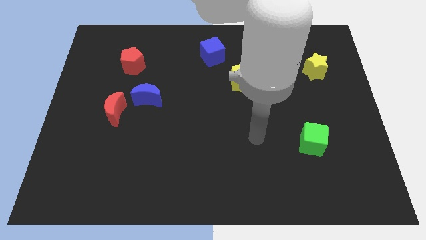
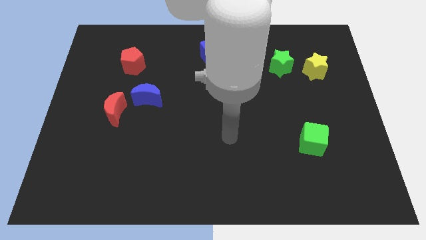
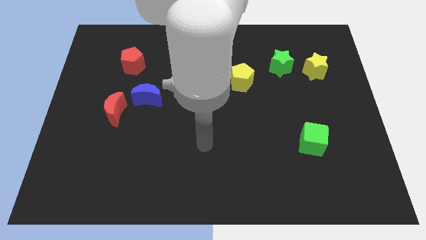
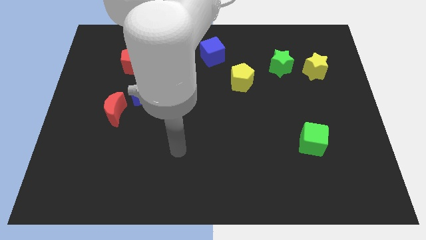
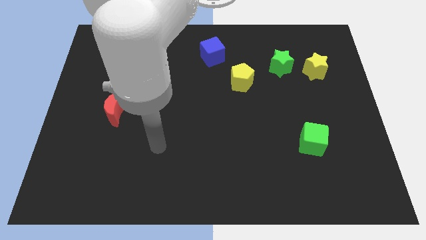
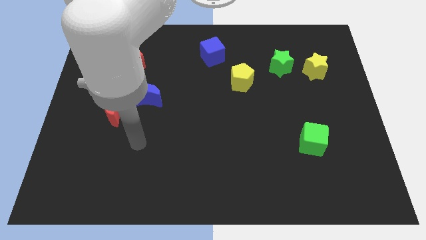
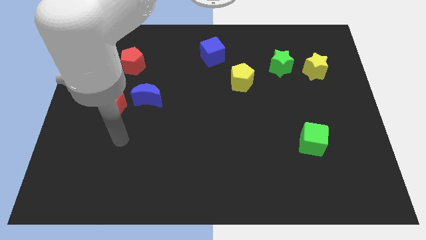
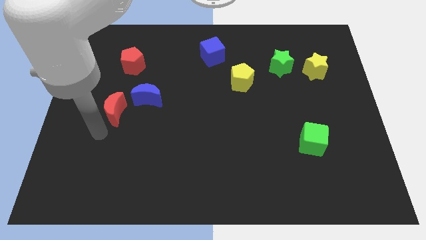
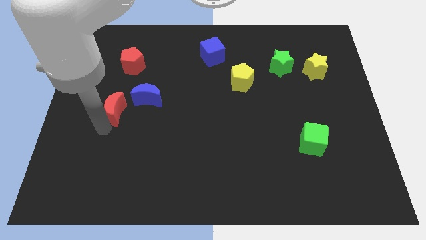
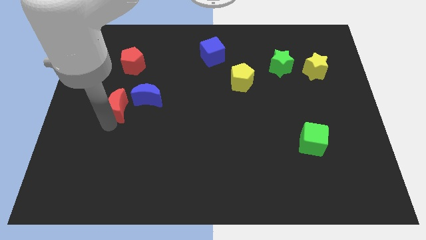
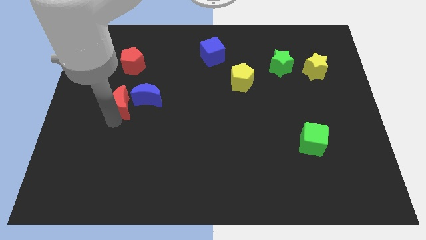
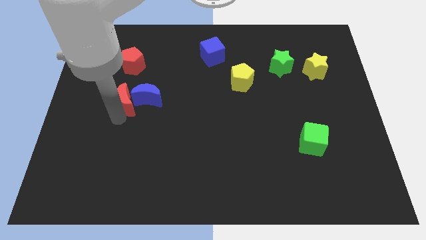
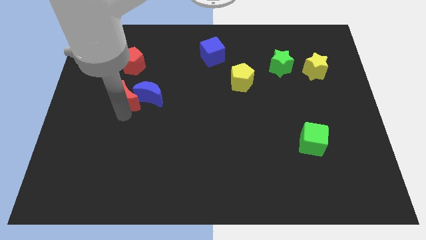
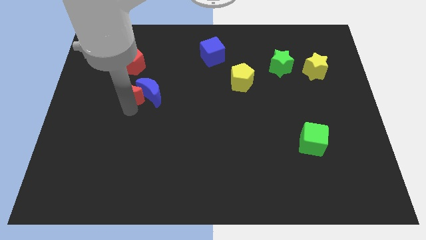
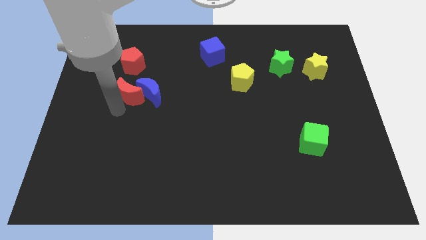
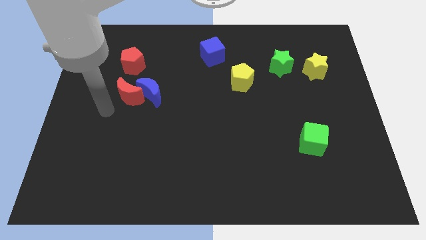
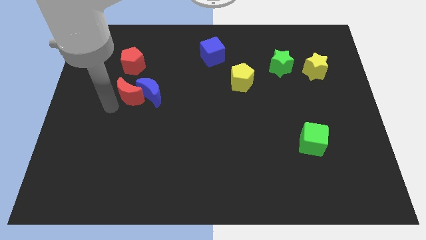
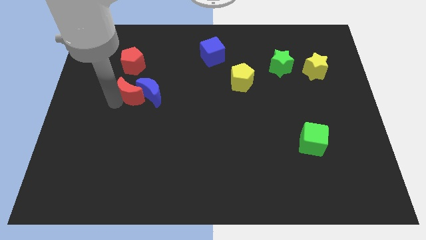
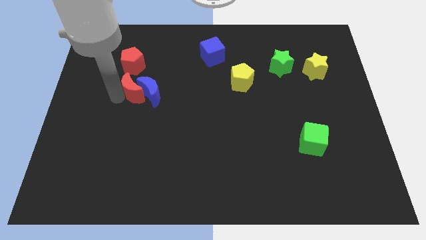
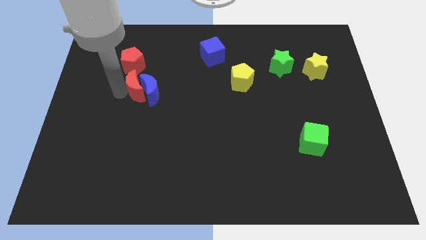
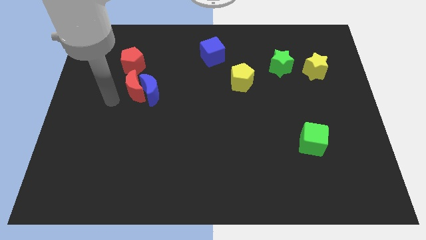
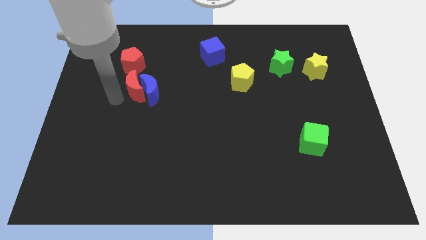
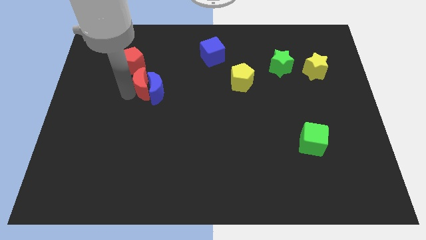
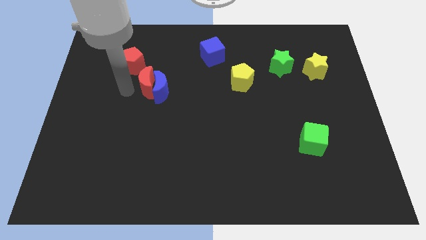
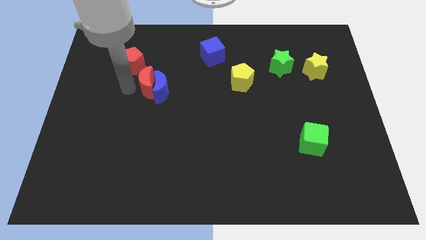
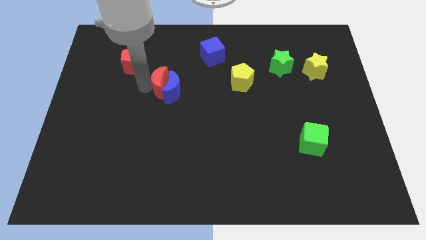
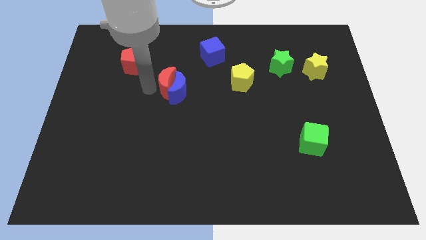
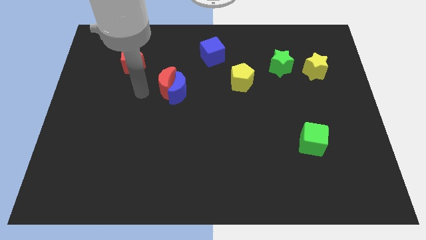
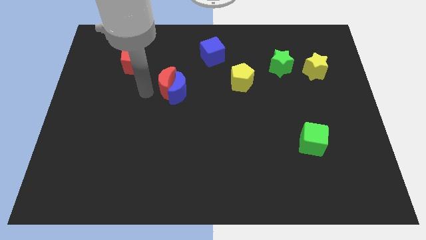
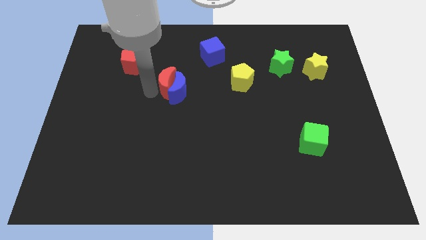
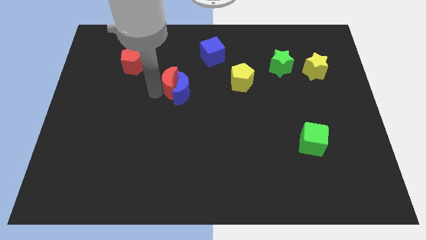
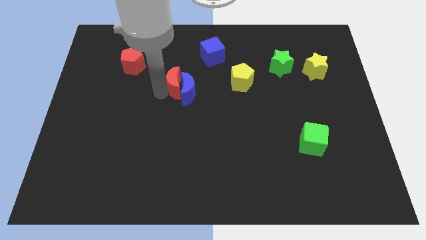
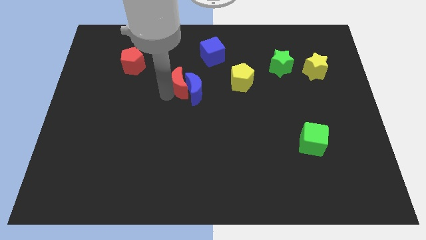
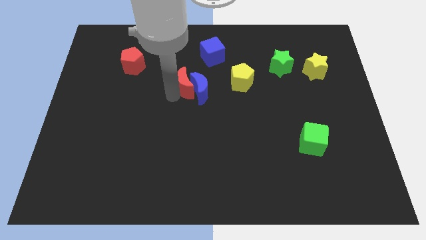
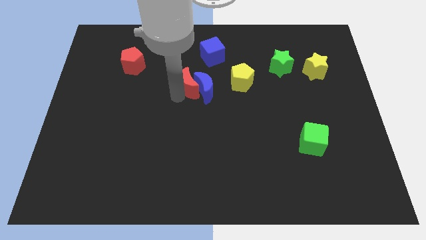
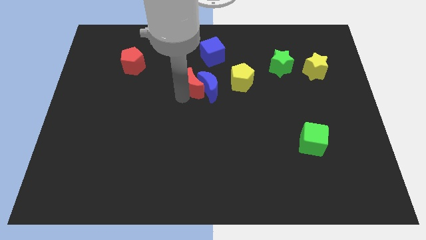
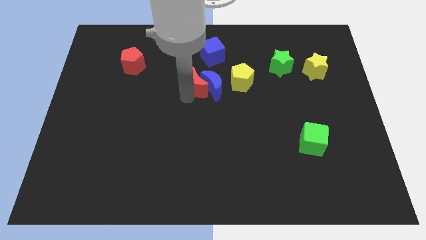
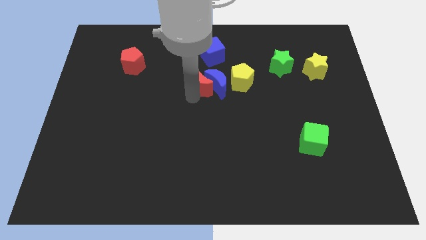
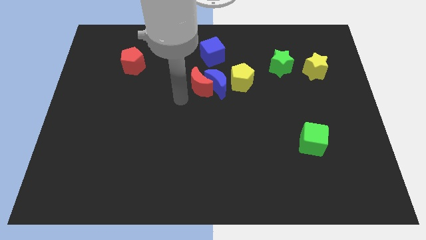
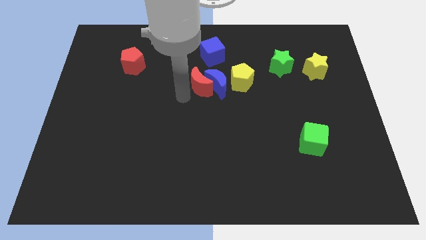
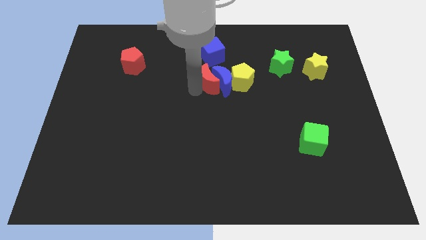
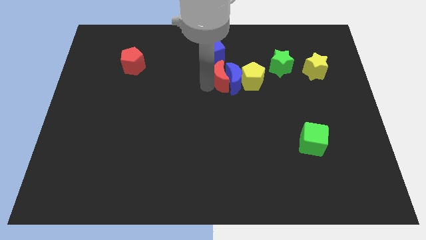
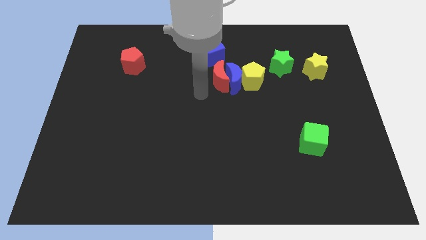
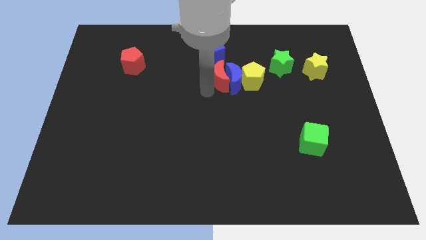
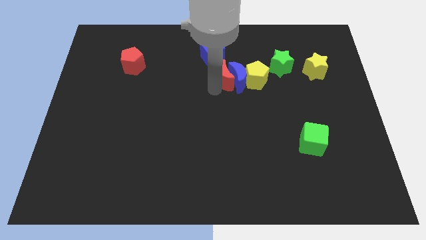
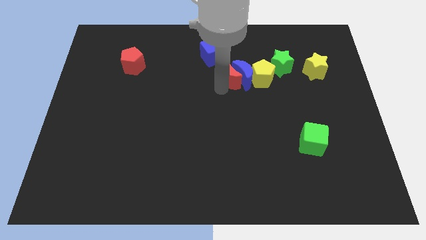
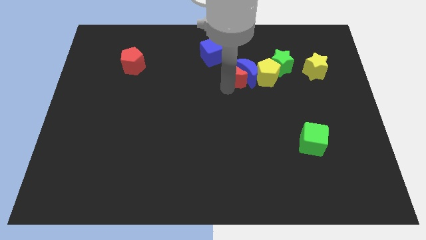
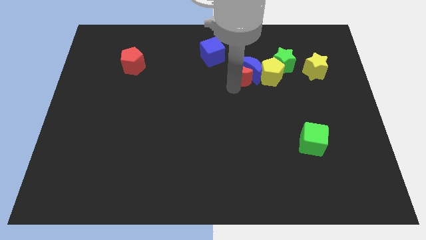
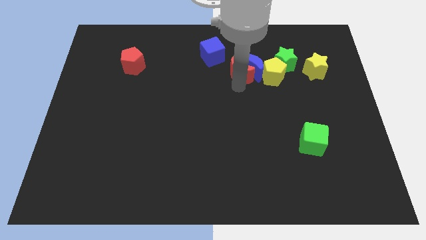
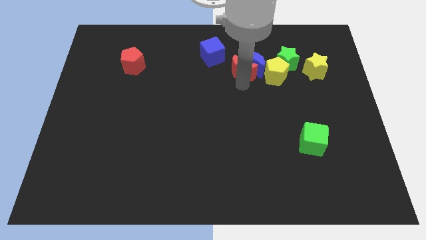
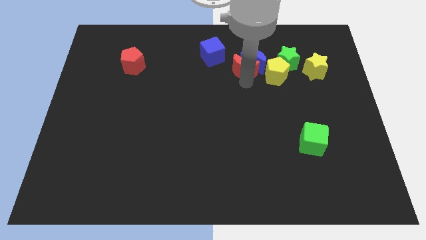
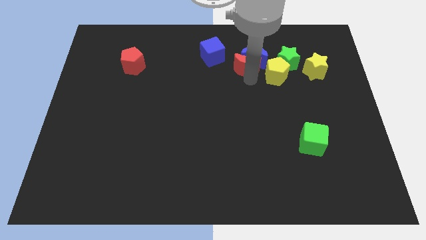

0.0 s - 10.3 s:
push the red moon right of the blue cube

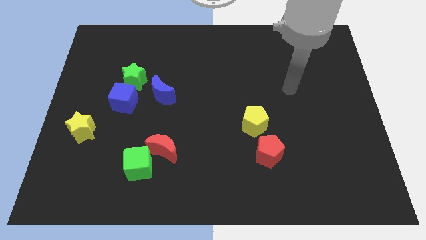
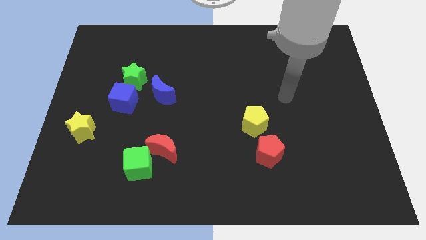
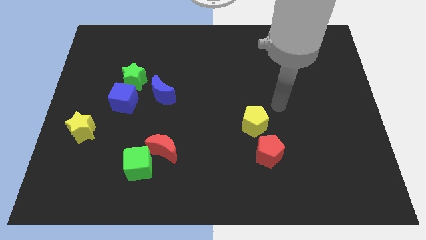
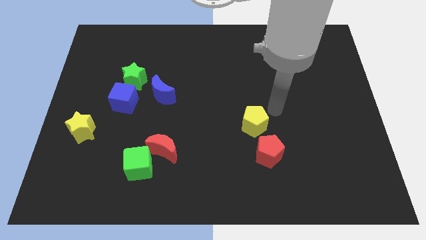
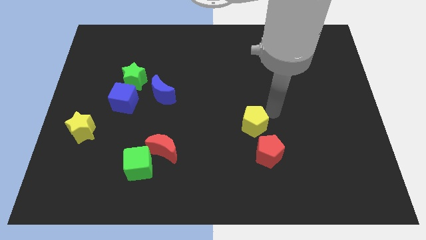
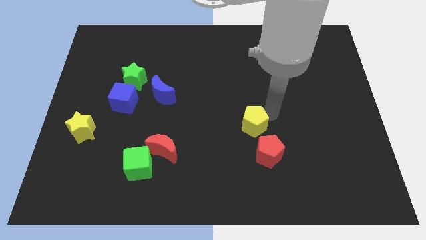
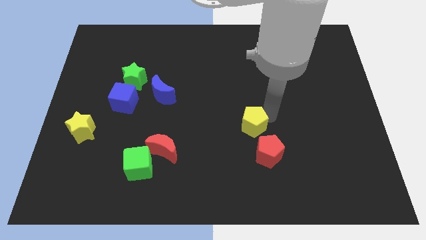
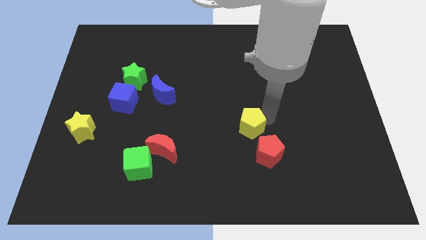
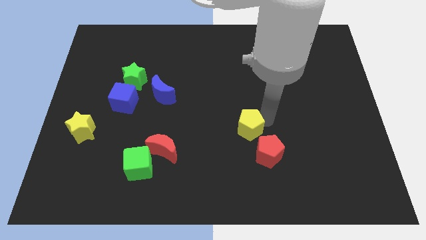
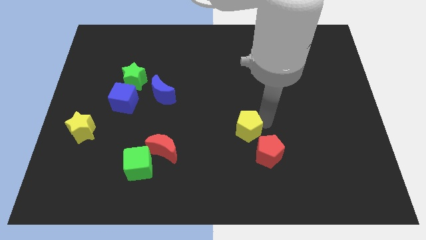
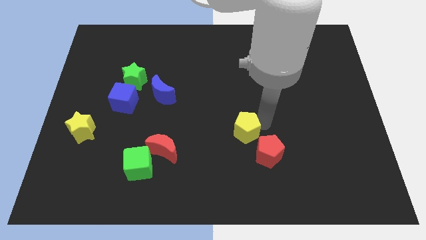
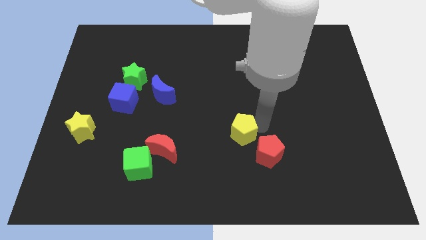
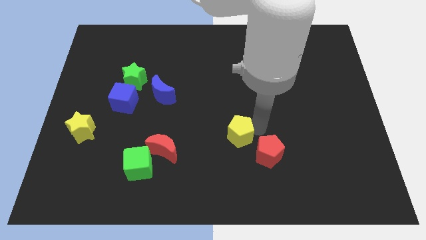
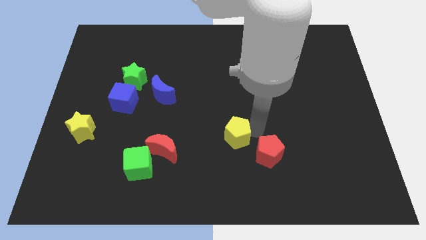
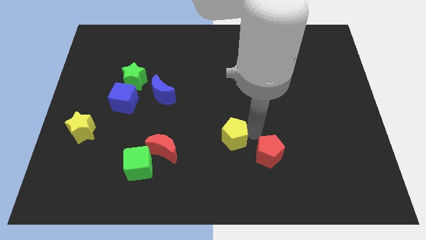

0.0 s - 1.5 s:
push the yellow pentagon just right of the red moon
